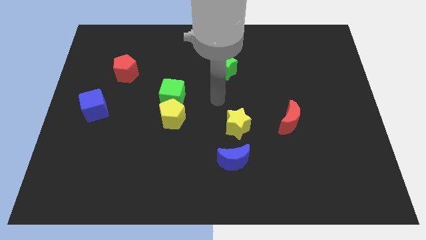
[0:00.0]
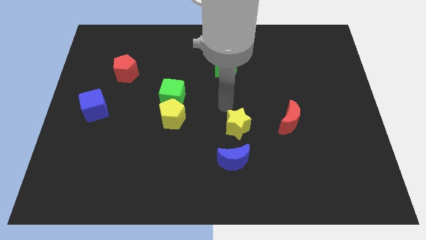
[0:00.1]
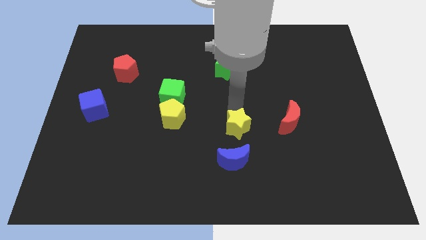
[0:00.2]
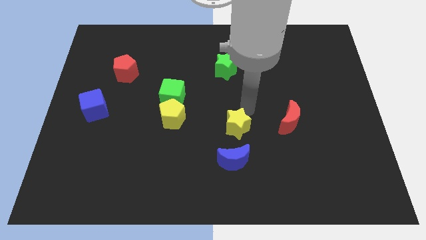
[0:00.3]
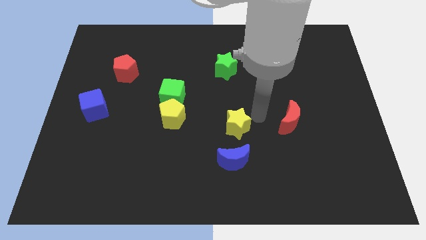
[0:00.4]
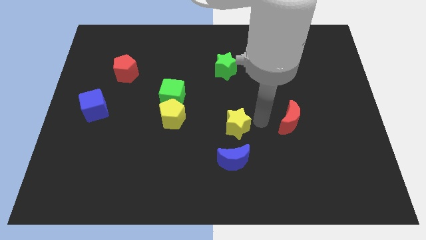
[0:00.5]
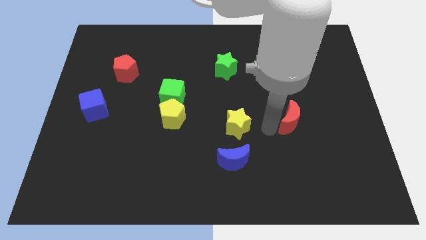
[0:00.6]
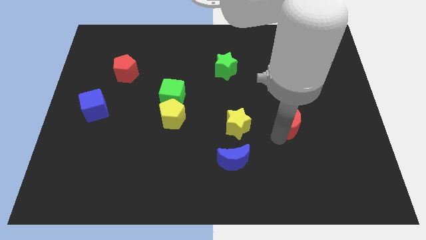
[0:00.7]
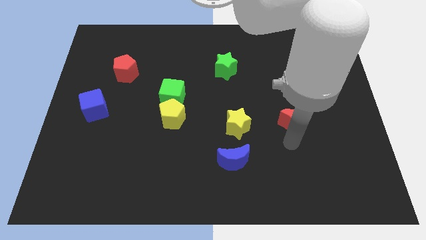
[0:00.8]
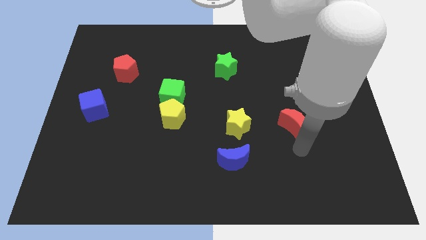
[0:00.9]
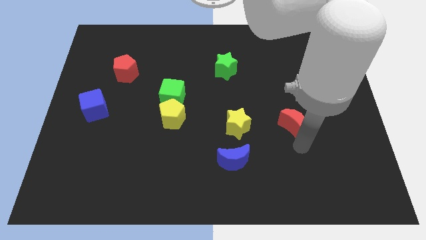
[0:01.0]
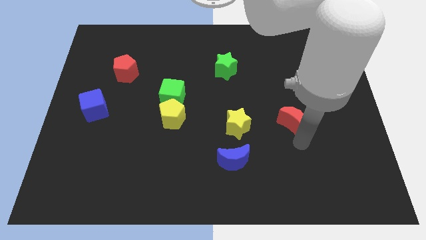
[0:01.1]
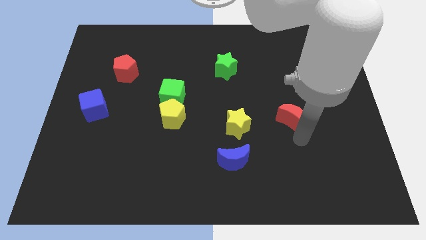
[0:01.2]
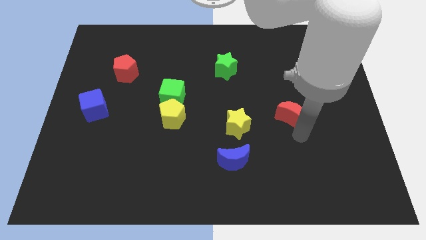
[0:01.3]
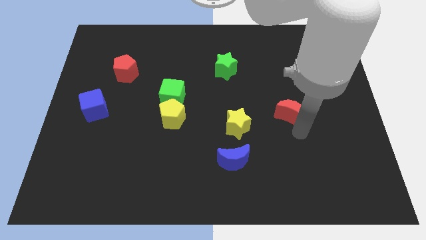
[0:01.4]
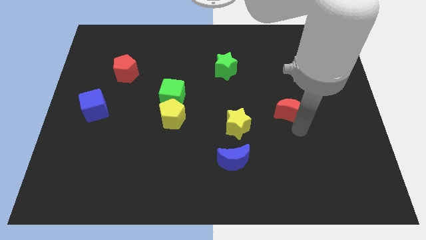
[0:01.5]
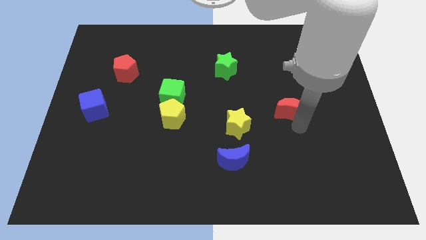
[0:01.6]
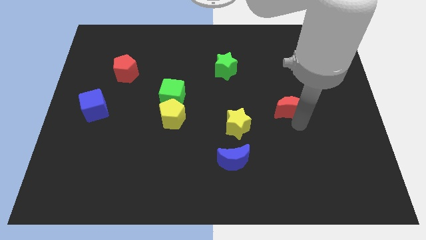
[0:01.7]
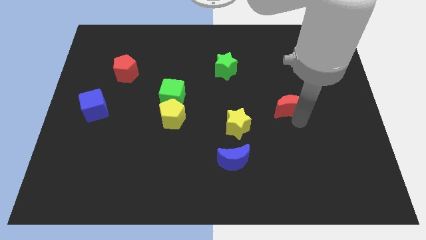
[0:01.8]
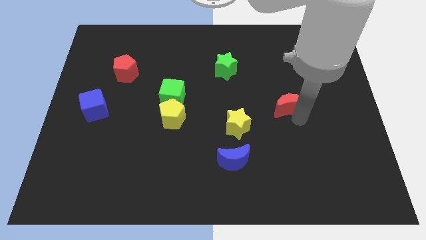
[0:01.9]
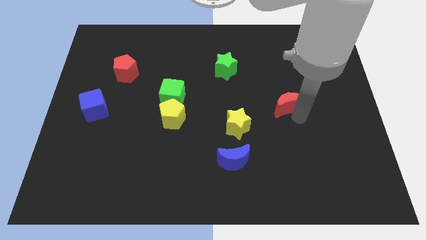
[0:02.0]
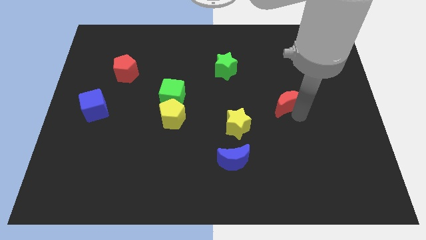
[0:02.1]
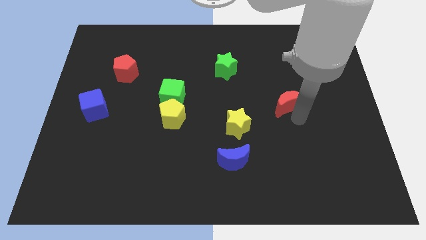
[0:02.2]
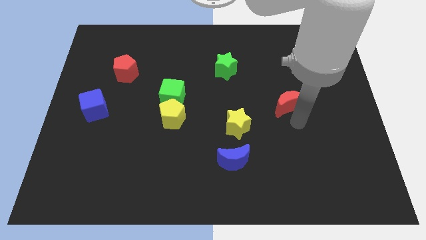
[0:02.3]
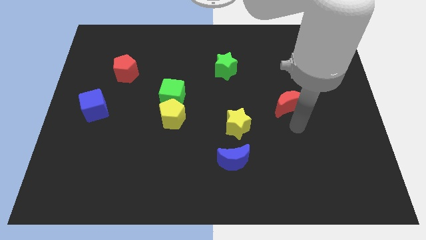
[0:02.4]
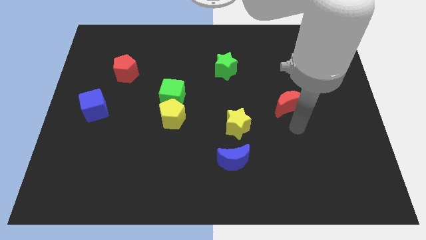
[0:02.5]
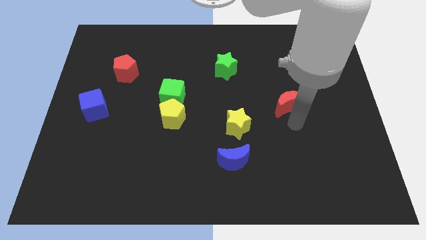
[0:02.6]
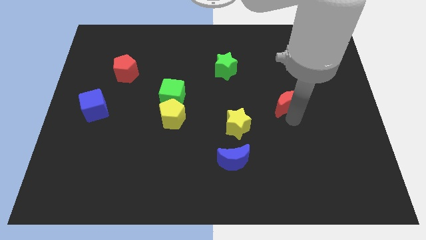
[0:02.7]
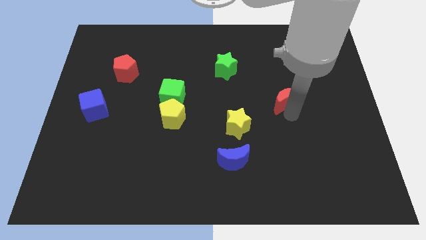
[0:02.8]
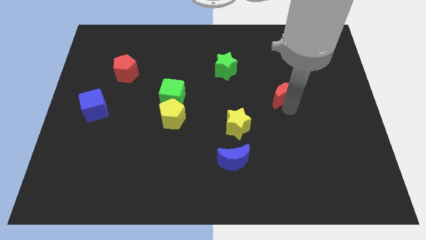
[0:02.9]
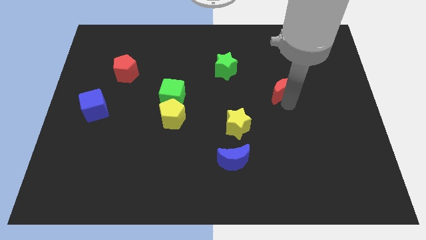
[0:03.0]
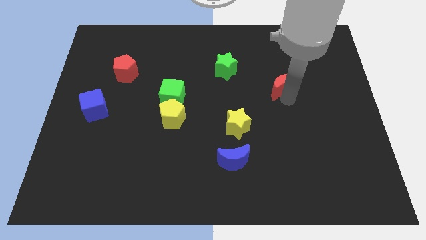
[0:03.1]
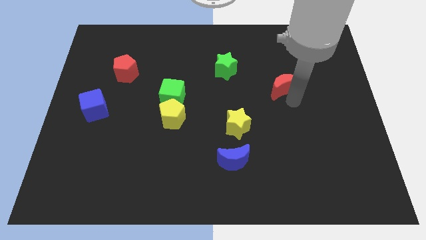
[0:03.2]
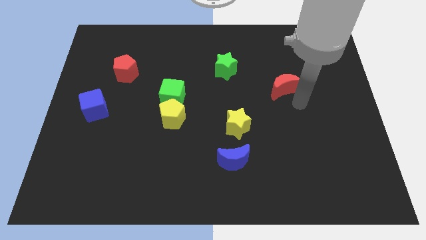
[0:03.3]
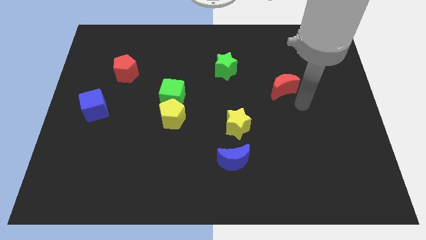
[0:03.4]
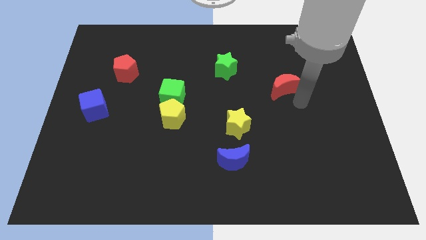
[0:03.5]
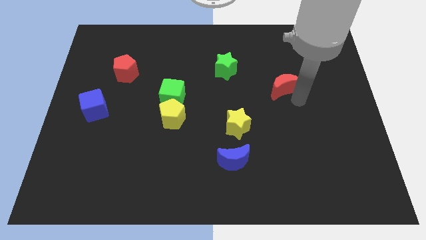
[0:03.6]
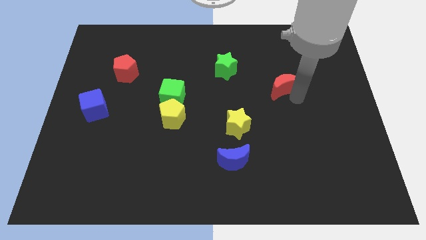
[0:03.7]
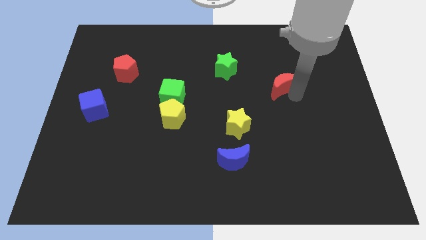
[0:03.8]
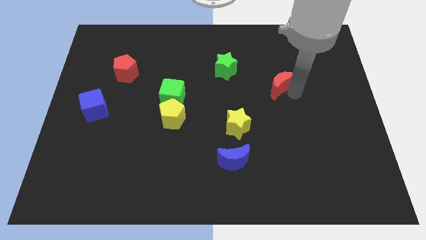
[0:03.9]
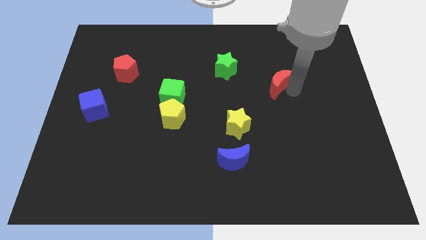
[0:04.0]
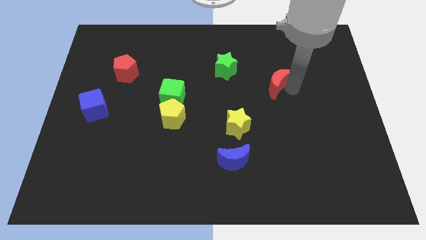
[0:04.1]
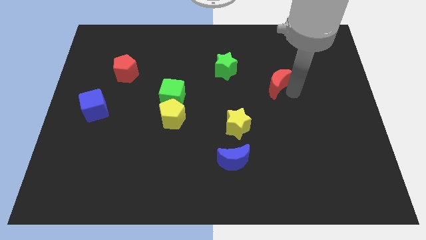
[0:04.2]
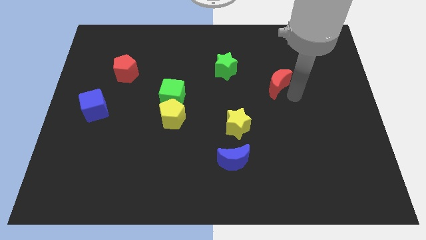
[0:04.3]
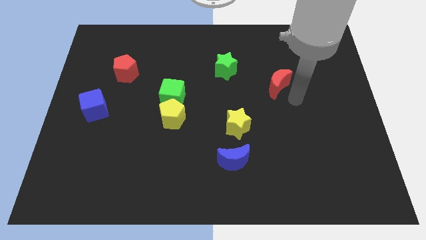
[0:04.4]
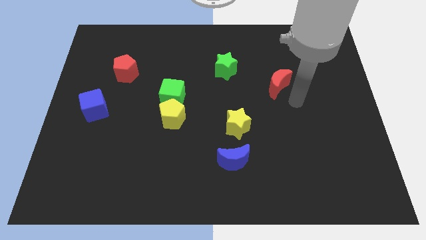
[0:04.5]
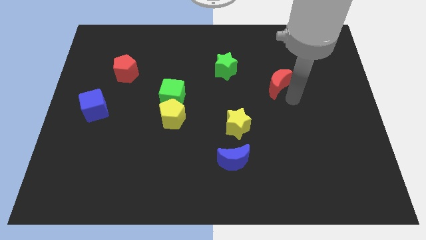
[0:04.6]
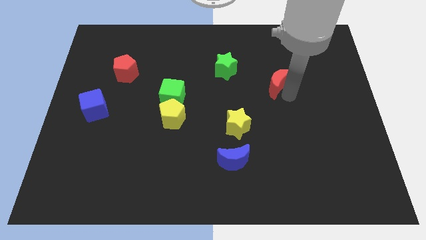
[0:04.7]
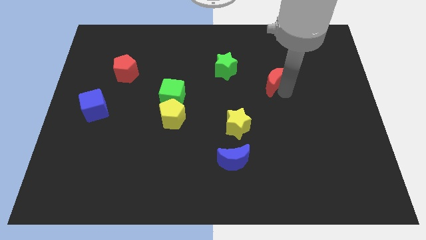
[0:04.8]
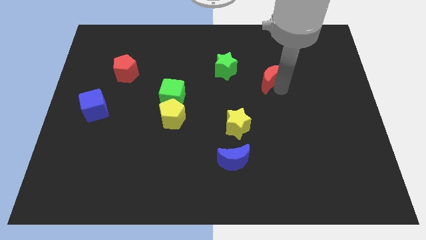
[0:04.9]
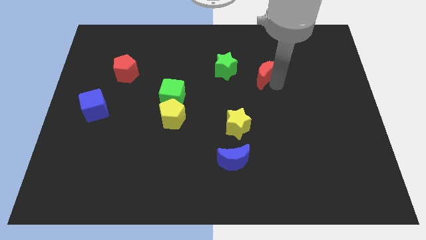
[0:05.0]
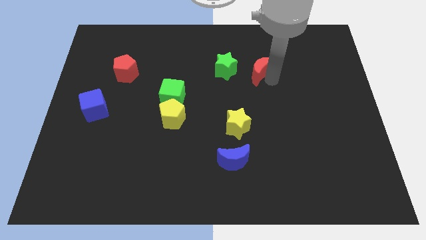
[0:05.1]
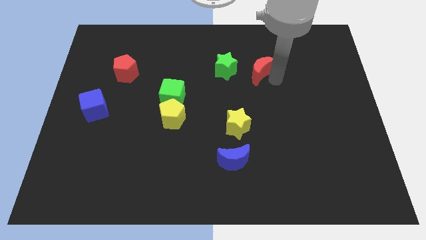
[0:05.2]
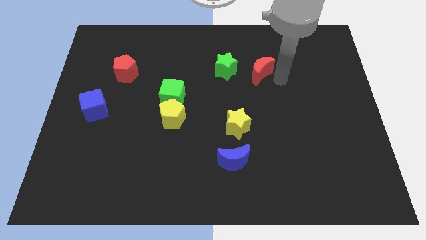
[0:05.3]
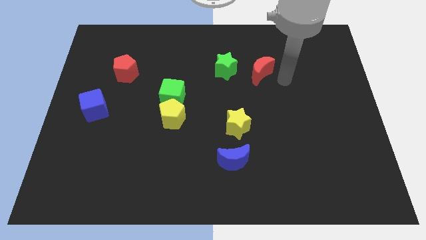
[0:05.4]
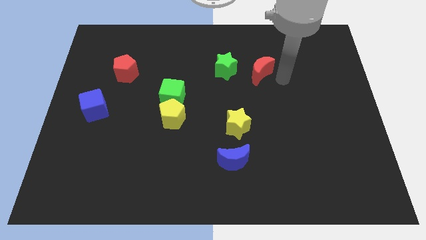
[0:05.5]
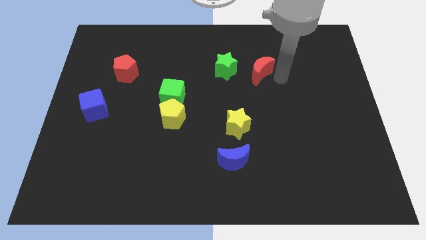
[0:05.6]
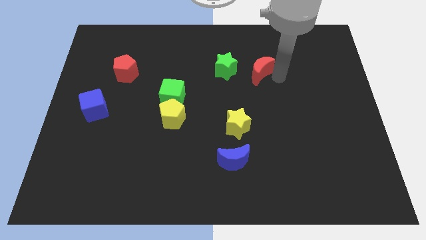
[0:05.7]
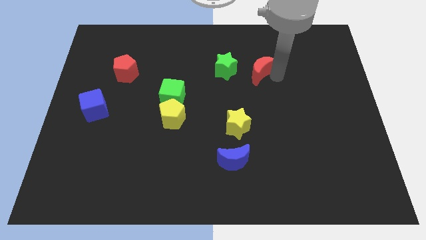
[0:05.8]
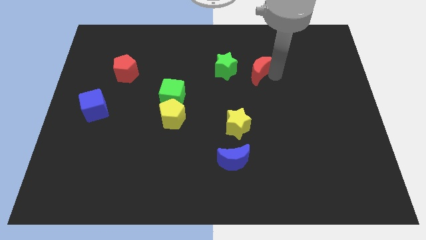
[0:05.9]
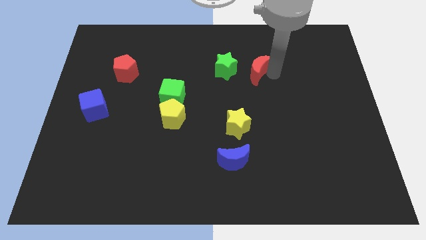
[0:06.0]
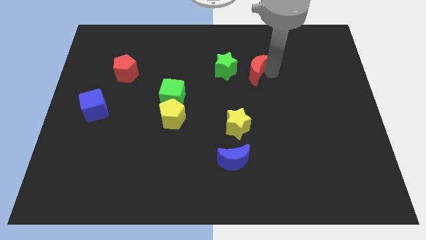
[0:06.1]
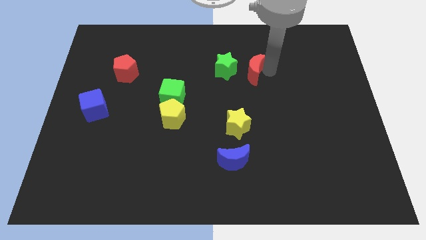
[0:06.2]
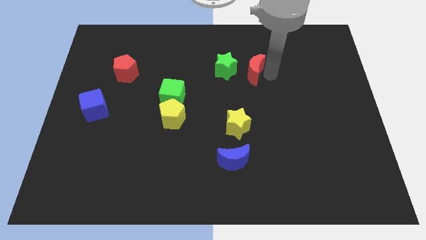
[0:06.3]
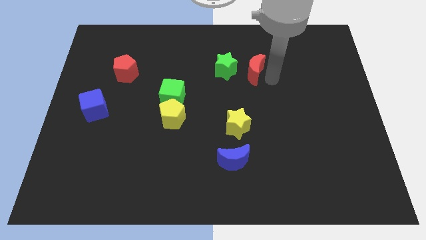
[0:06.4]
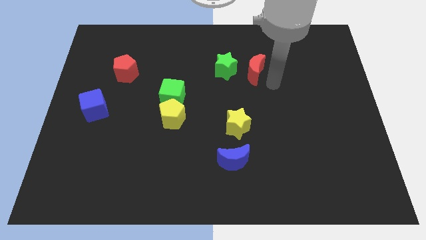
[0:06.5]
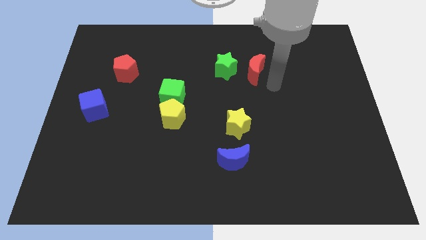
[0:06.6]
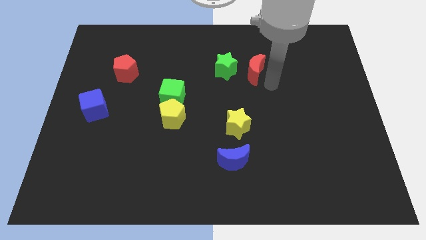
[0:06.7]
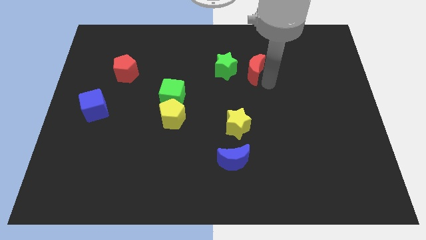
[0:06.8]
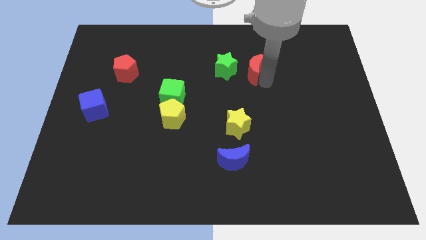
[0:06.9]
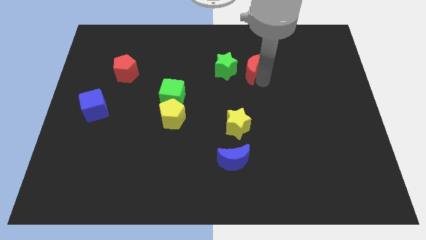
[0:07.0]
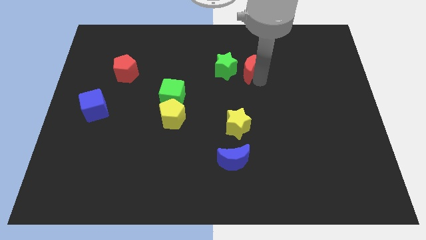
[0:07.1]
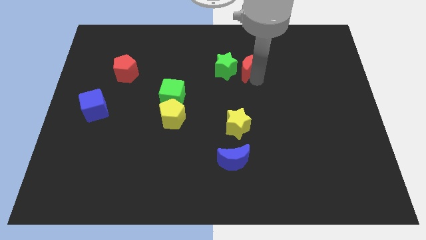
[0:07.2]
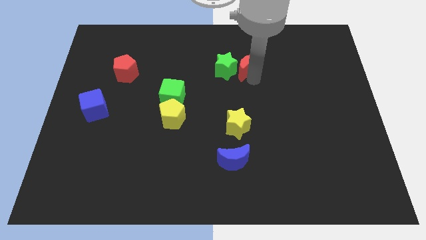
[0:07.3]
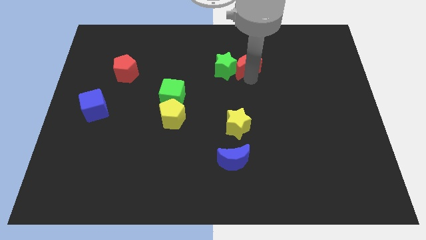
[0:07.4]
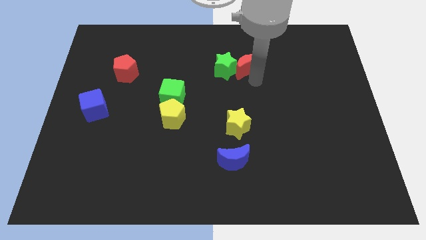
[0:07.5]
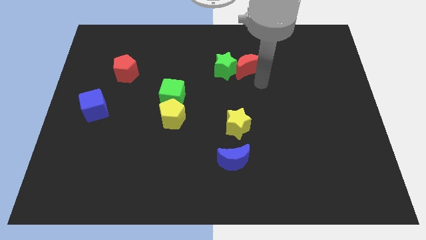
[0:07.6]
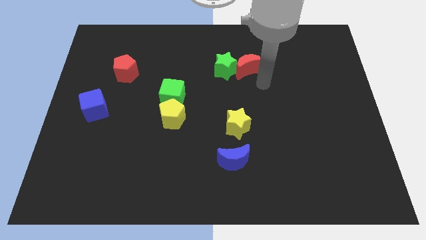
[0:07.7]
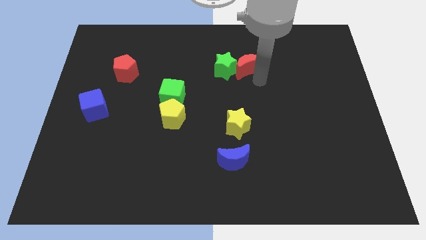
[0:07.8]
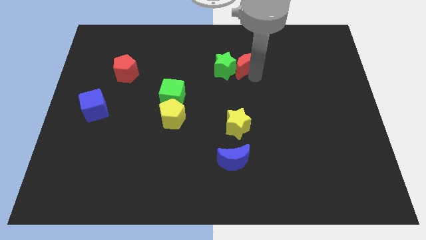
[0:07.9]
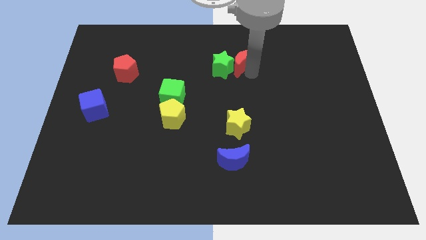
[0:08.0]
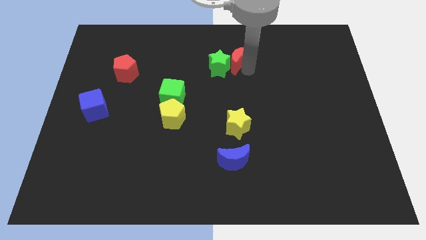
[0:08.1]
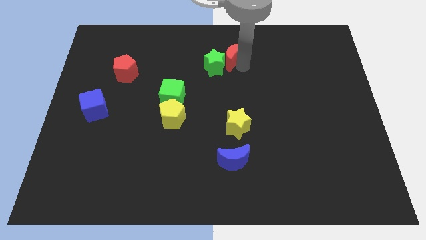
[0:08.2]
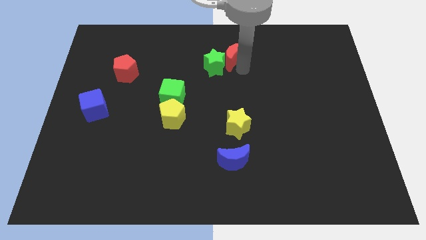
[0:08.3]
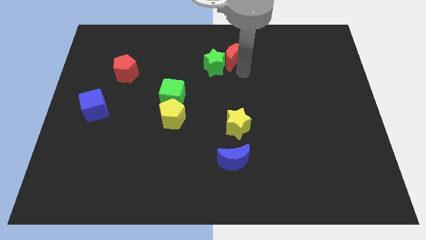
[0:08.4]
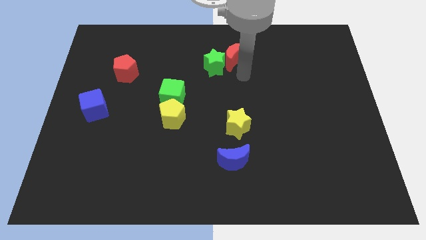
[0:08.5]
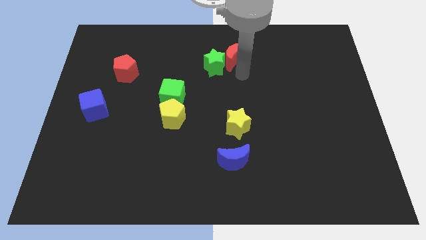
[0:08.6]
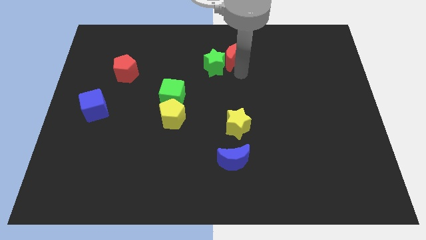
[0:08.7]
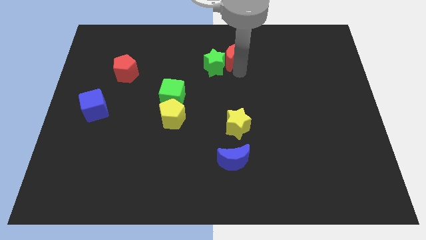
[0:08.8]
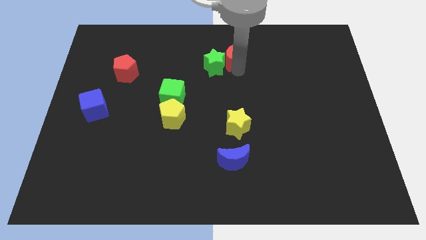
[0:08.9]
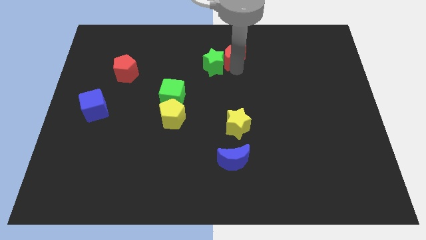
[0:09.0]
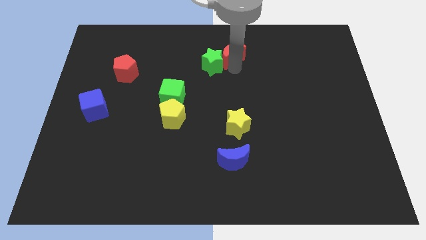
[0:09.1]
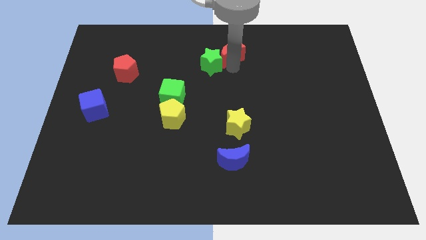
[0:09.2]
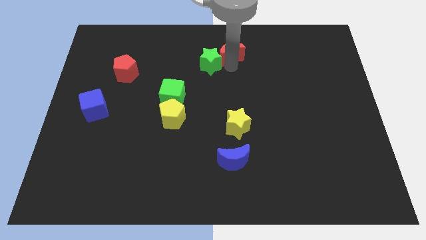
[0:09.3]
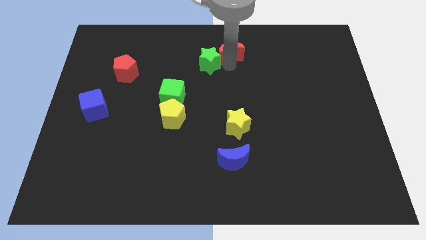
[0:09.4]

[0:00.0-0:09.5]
slide the red moon to the top
